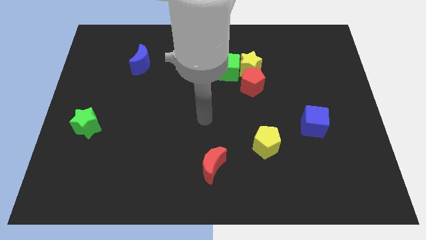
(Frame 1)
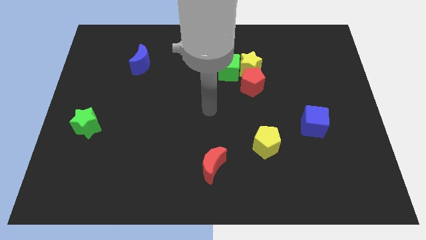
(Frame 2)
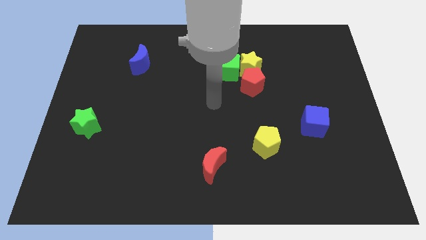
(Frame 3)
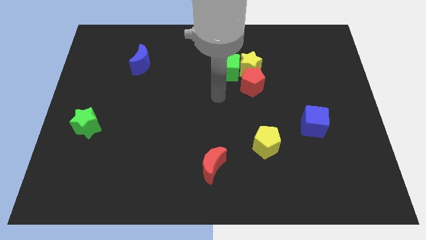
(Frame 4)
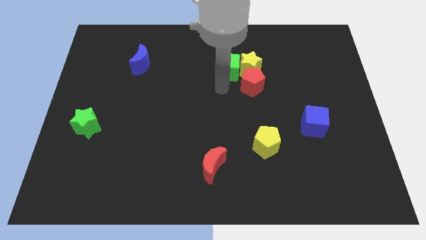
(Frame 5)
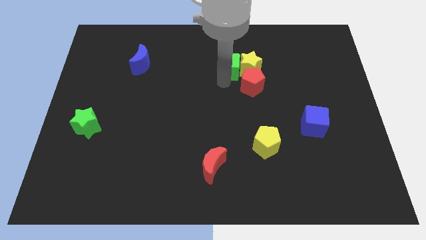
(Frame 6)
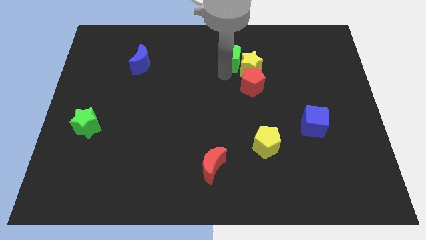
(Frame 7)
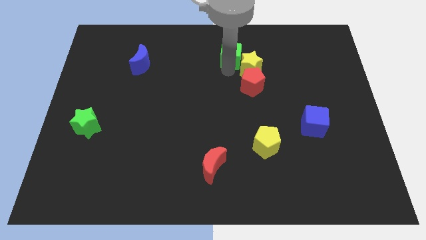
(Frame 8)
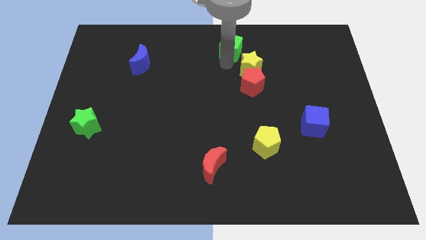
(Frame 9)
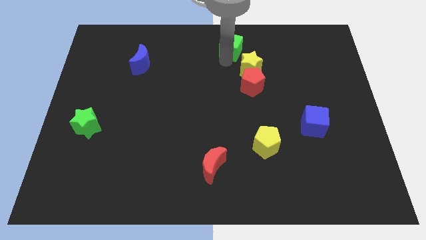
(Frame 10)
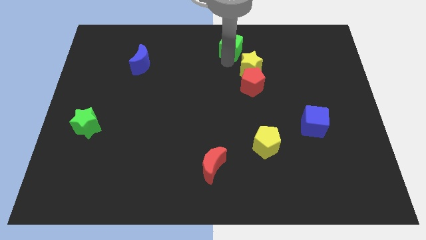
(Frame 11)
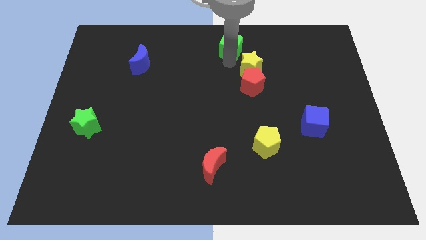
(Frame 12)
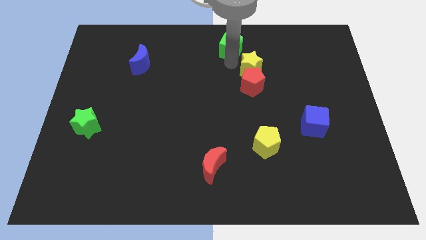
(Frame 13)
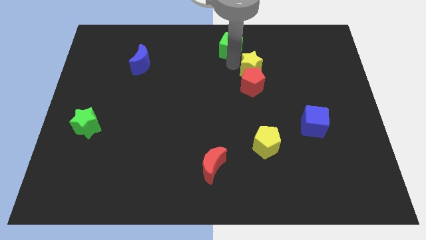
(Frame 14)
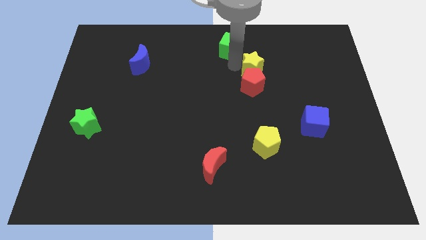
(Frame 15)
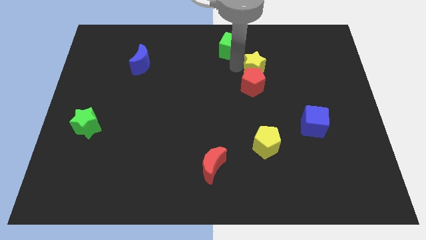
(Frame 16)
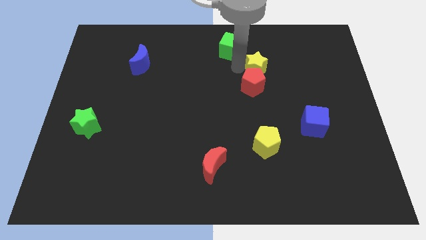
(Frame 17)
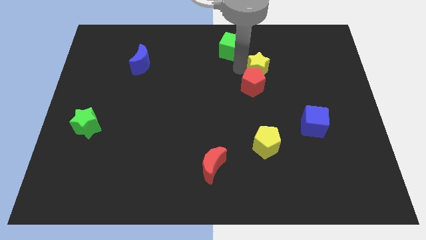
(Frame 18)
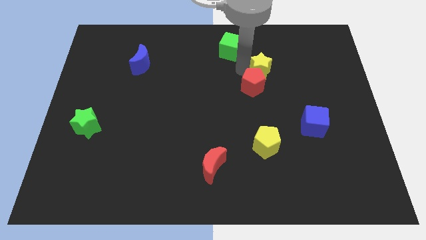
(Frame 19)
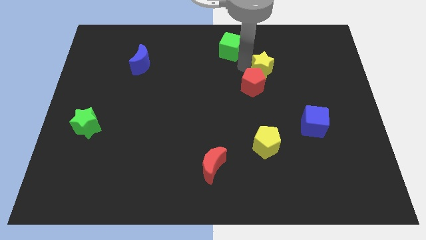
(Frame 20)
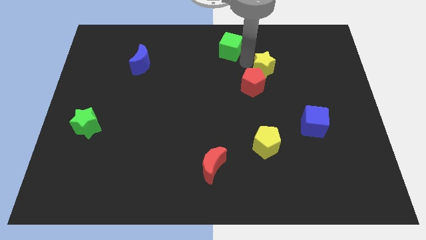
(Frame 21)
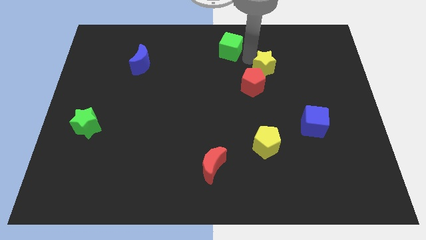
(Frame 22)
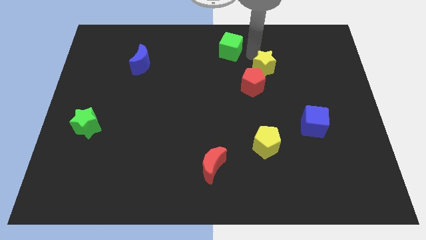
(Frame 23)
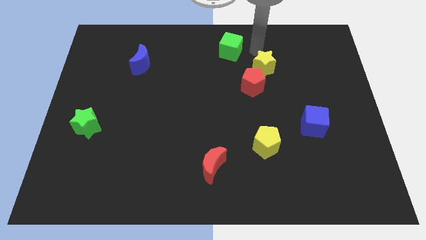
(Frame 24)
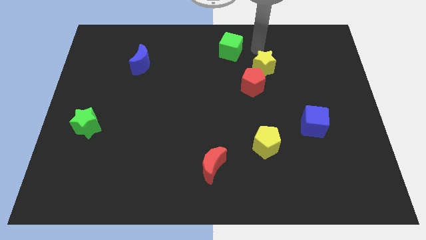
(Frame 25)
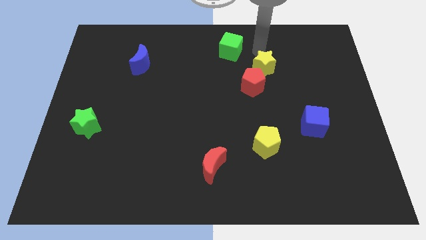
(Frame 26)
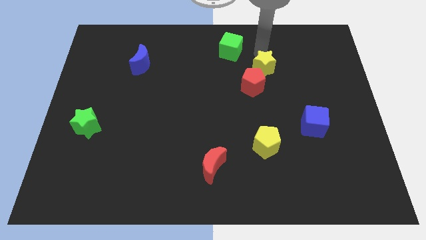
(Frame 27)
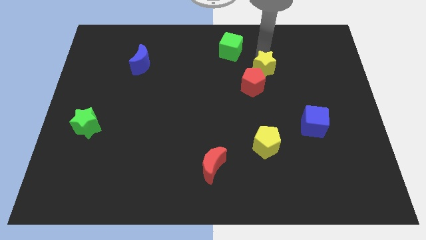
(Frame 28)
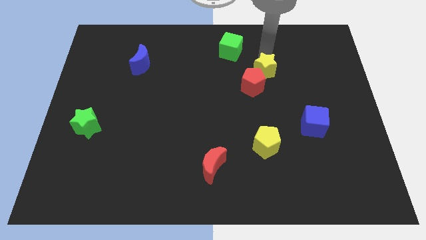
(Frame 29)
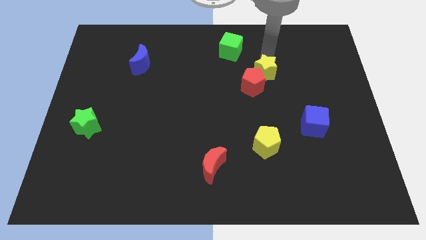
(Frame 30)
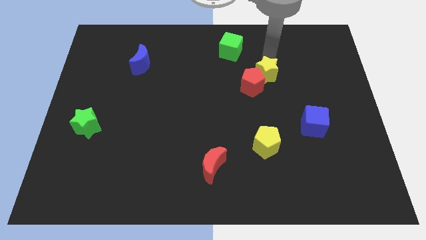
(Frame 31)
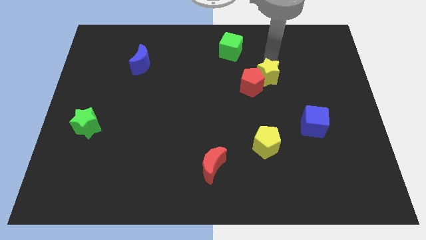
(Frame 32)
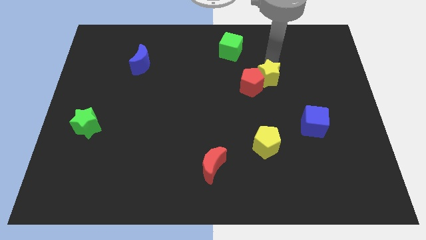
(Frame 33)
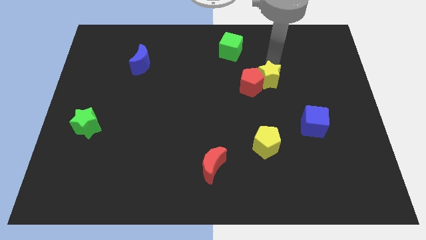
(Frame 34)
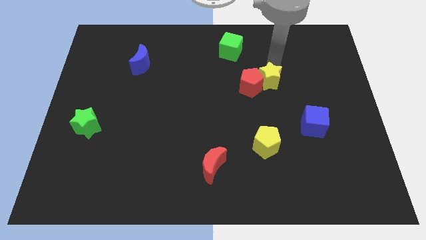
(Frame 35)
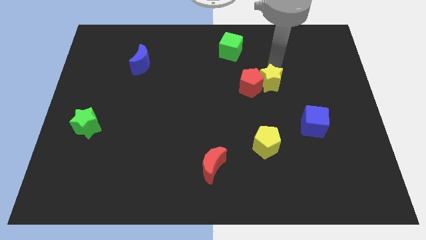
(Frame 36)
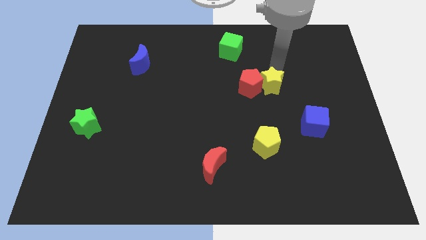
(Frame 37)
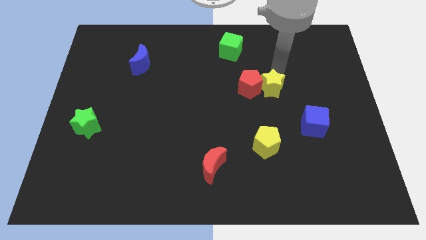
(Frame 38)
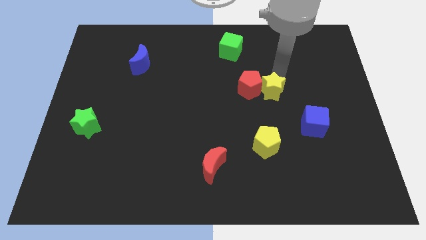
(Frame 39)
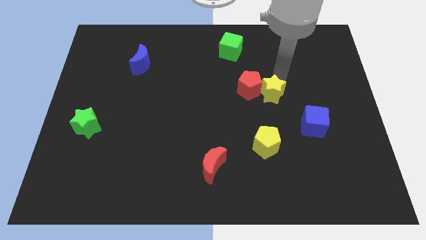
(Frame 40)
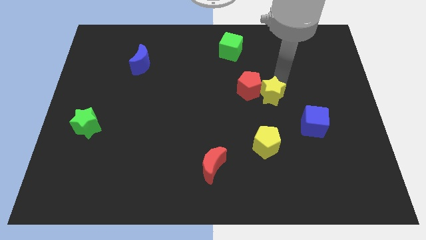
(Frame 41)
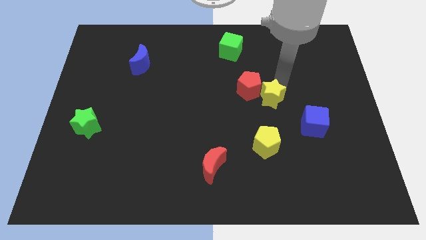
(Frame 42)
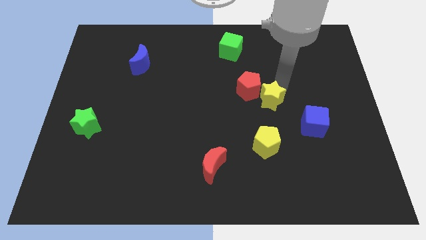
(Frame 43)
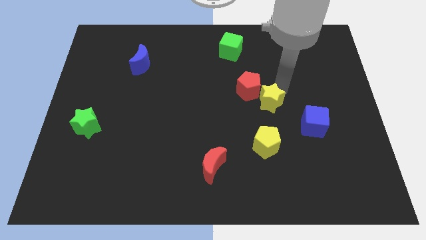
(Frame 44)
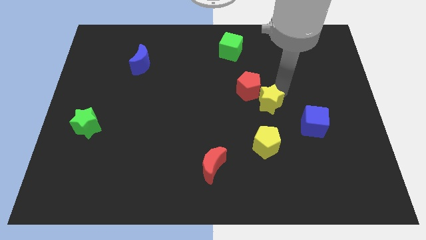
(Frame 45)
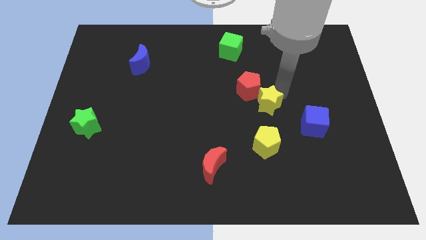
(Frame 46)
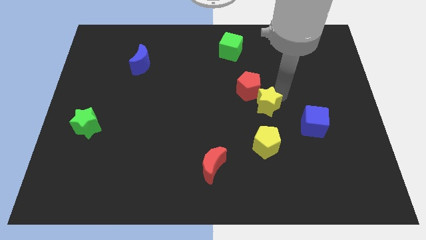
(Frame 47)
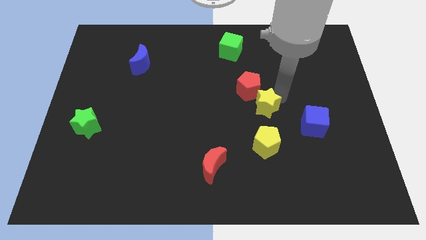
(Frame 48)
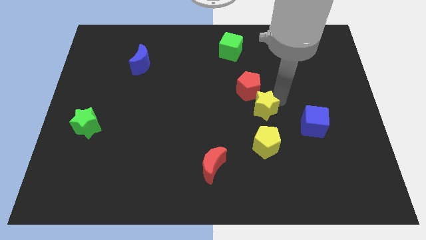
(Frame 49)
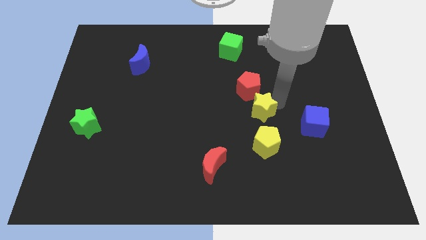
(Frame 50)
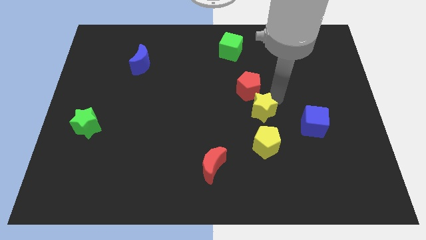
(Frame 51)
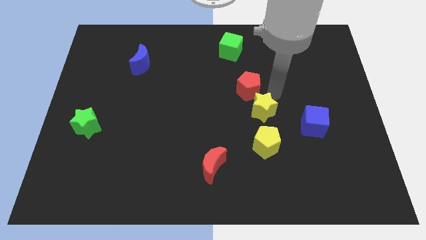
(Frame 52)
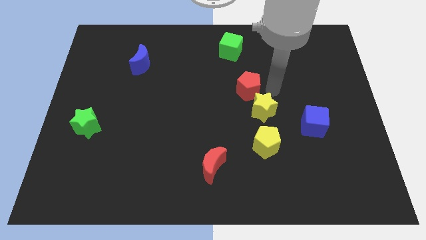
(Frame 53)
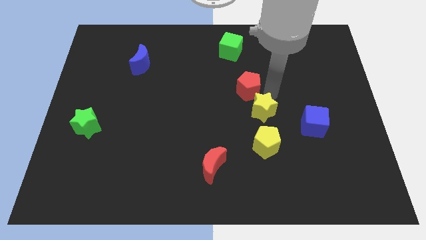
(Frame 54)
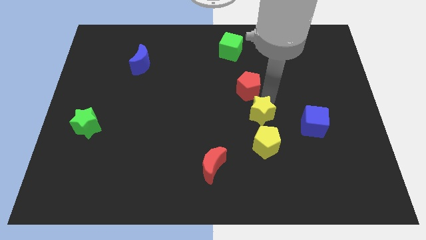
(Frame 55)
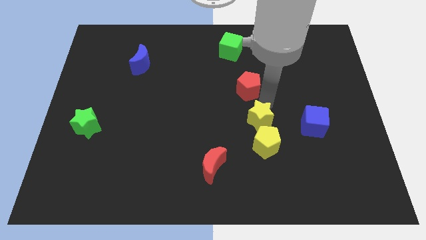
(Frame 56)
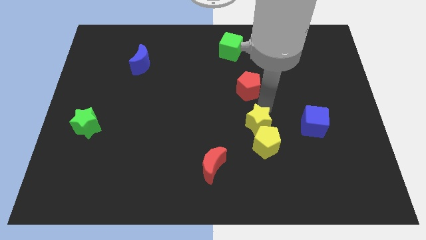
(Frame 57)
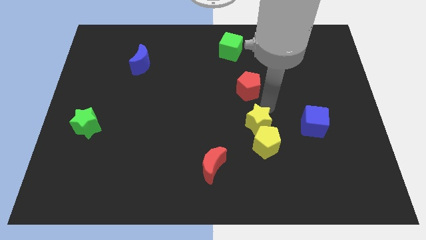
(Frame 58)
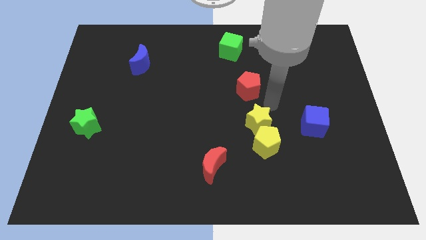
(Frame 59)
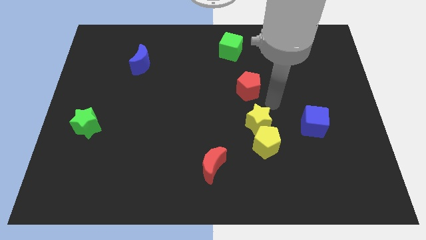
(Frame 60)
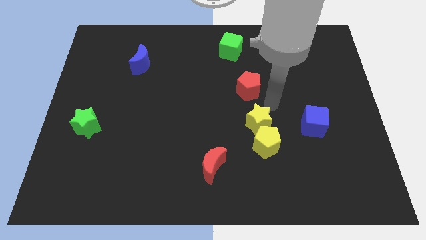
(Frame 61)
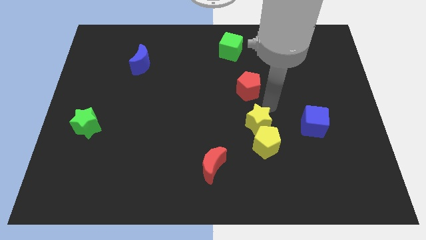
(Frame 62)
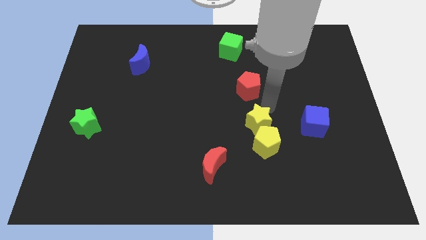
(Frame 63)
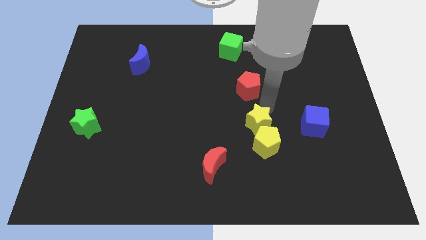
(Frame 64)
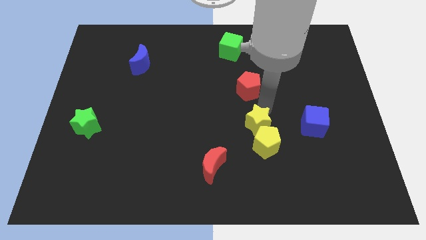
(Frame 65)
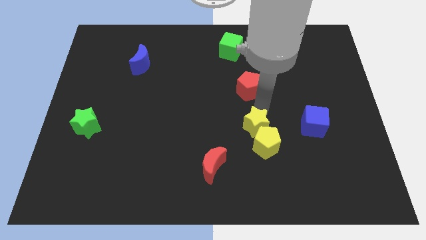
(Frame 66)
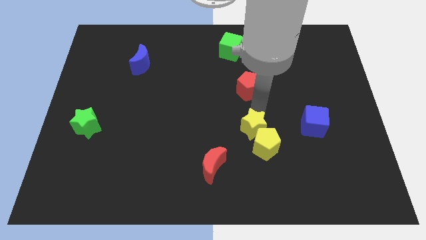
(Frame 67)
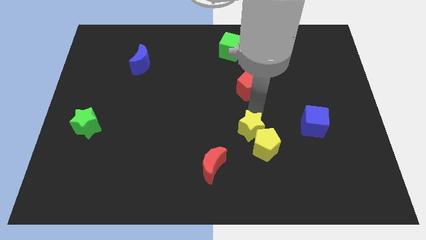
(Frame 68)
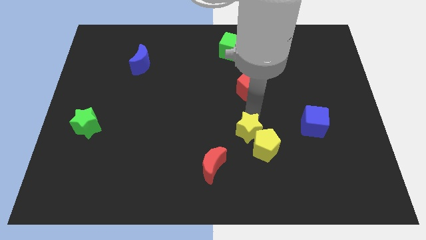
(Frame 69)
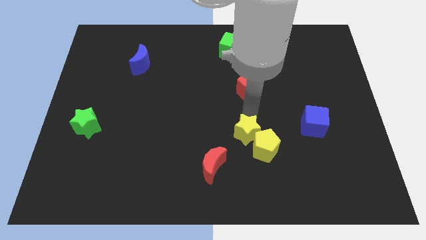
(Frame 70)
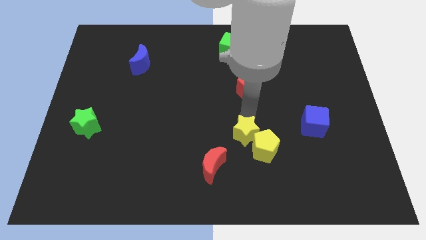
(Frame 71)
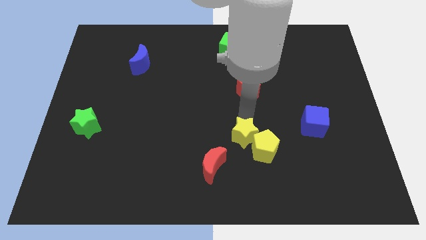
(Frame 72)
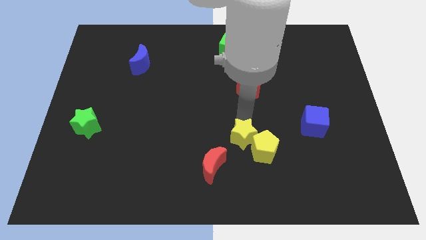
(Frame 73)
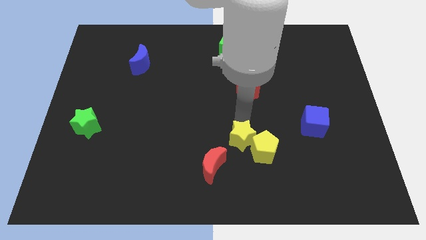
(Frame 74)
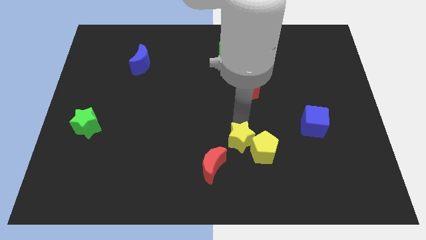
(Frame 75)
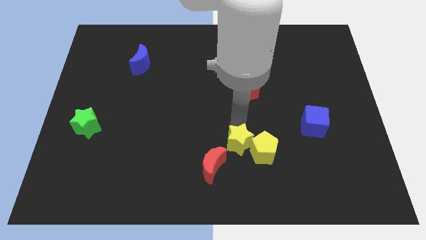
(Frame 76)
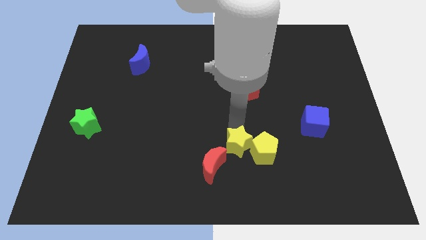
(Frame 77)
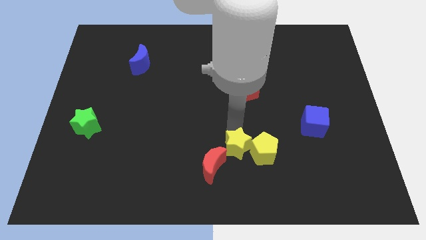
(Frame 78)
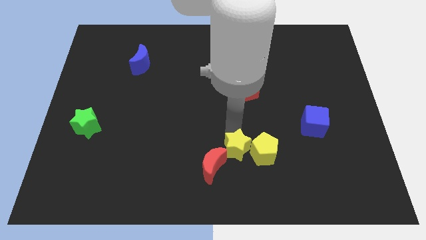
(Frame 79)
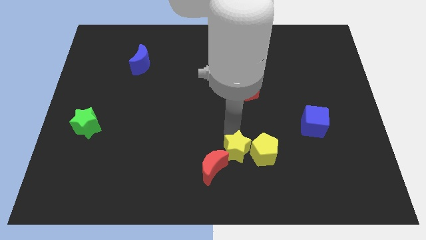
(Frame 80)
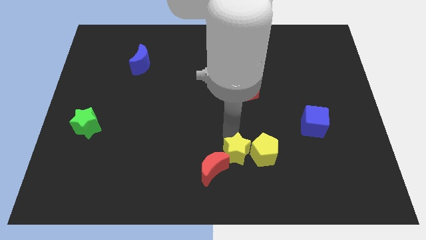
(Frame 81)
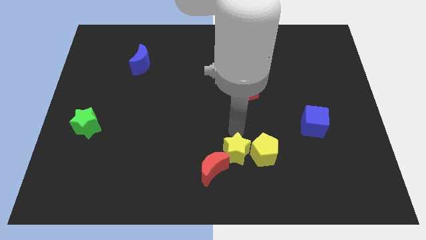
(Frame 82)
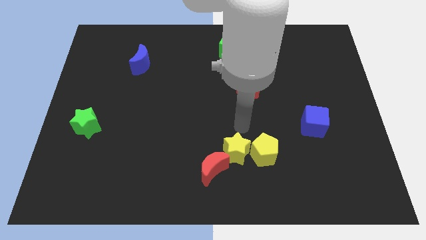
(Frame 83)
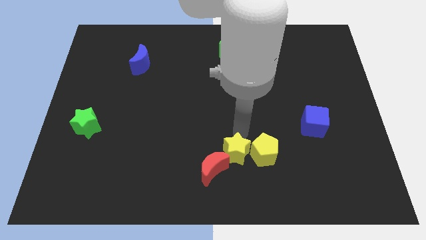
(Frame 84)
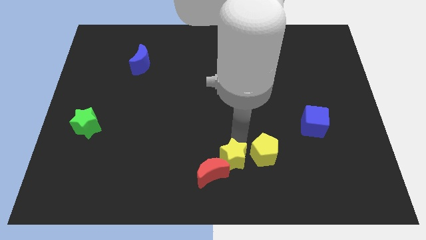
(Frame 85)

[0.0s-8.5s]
push the yellow star to the bottom
